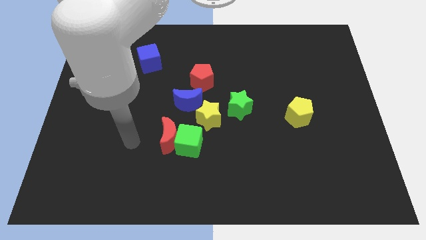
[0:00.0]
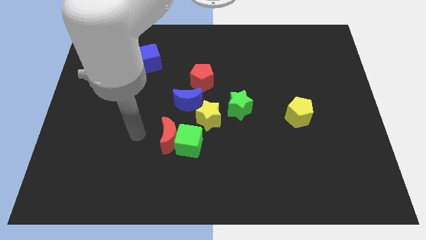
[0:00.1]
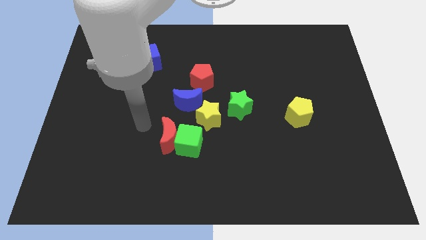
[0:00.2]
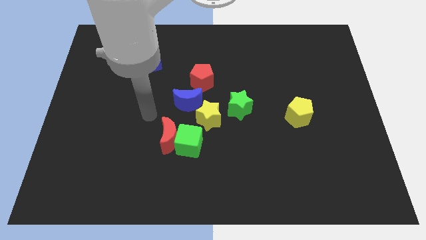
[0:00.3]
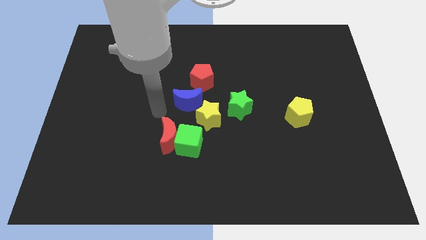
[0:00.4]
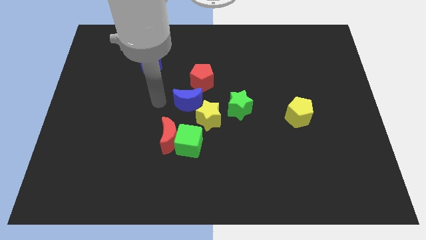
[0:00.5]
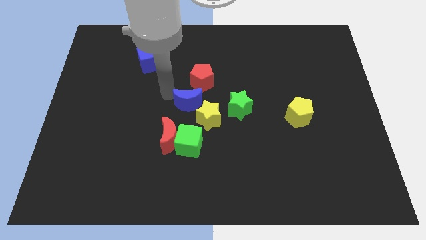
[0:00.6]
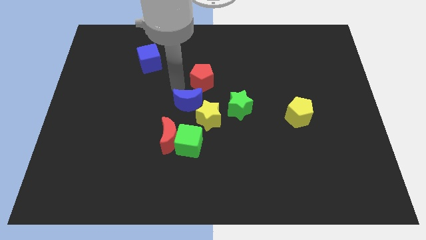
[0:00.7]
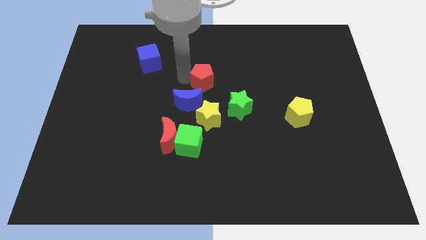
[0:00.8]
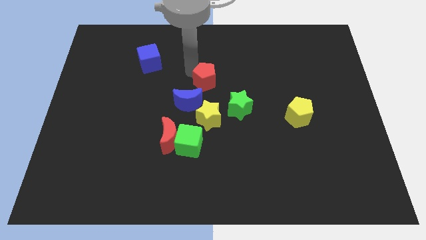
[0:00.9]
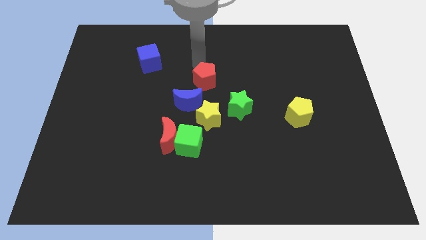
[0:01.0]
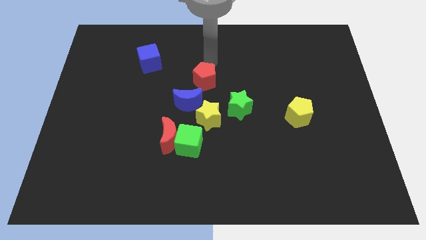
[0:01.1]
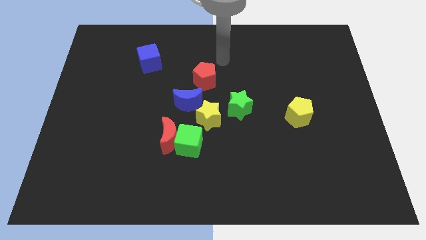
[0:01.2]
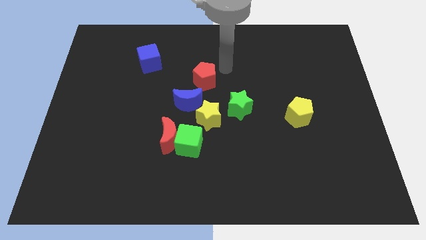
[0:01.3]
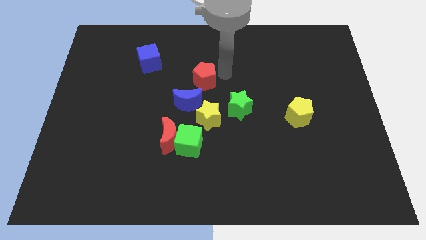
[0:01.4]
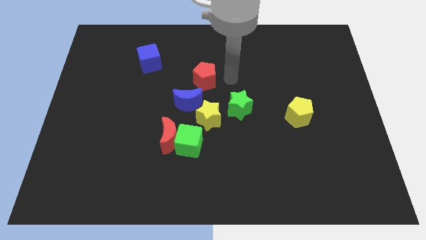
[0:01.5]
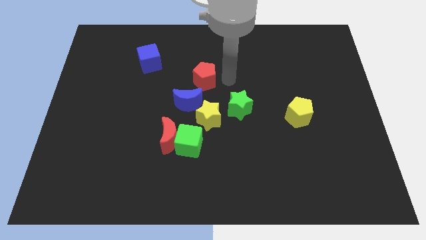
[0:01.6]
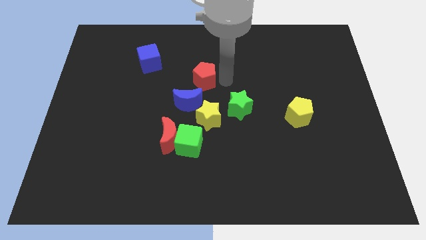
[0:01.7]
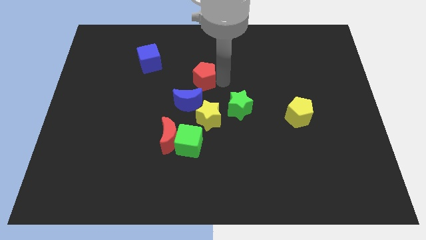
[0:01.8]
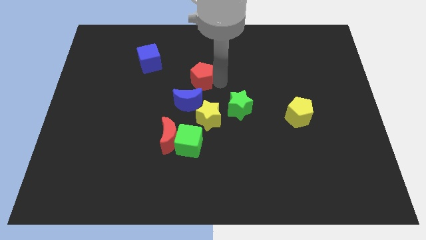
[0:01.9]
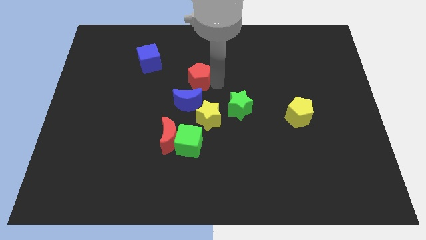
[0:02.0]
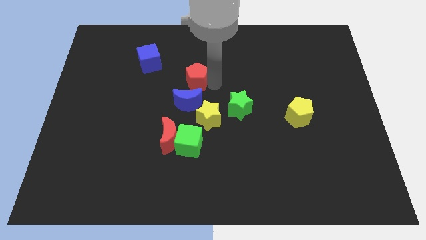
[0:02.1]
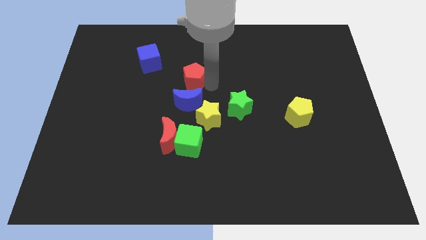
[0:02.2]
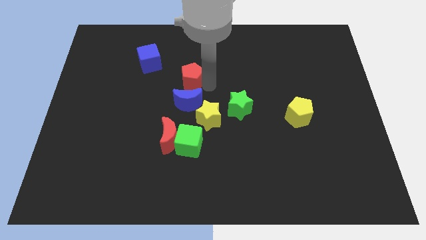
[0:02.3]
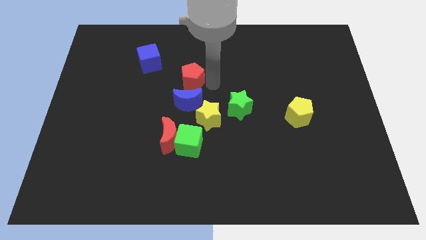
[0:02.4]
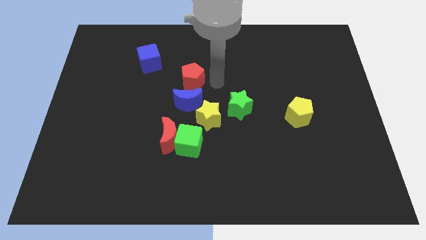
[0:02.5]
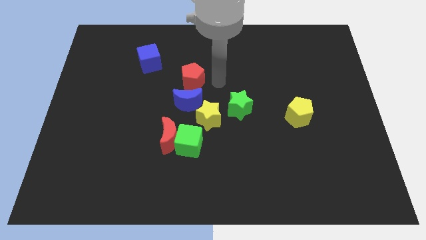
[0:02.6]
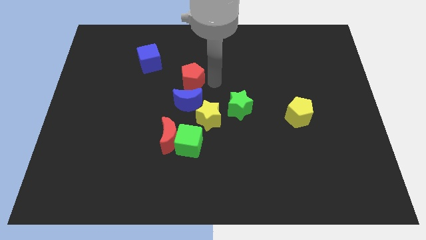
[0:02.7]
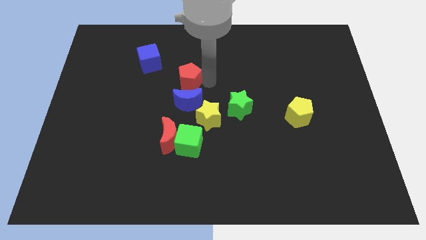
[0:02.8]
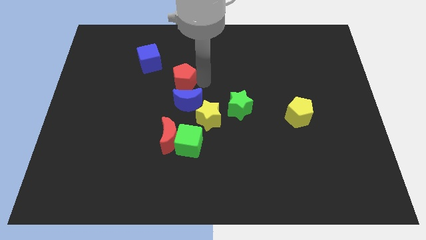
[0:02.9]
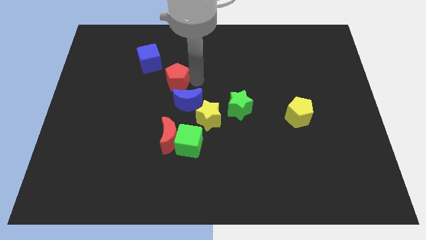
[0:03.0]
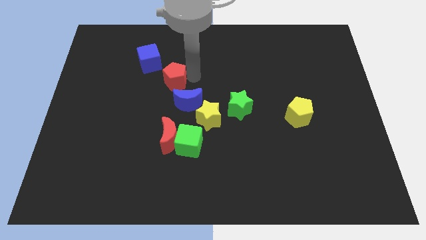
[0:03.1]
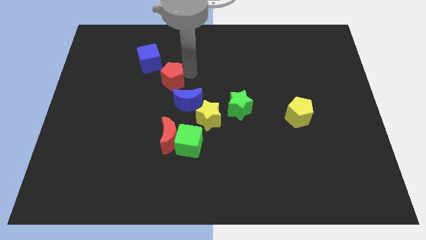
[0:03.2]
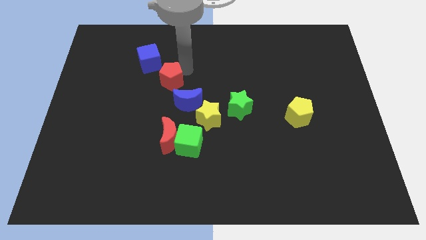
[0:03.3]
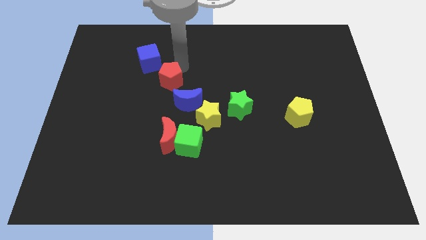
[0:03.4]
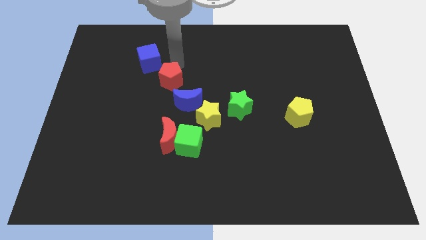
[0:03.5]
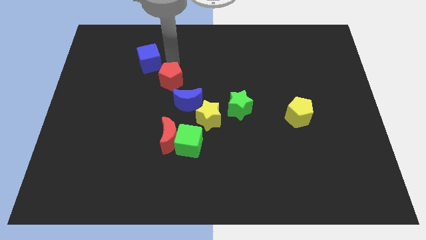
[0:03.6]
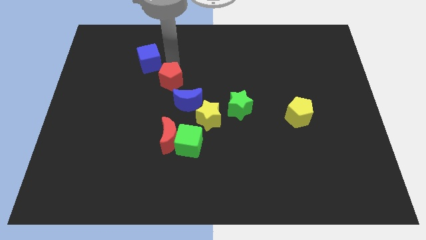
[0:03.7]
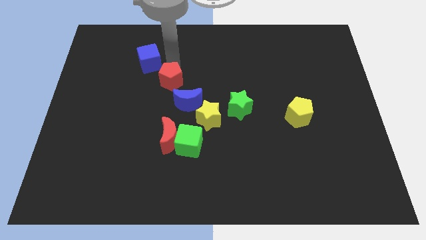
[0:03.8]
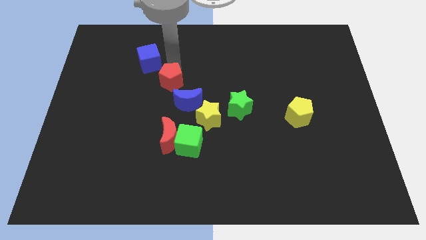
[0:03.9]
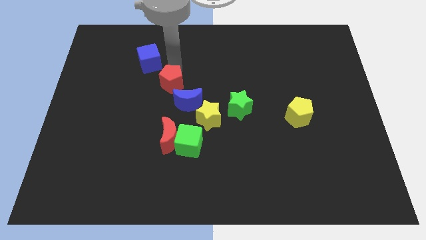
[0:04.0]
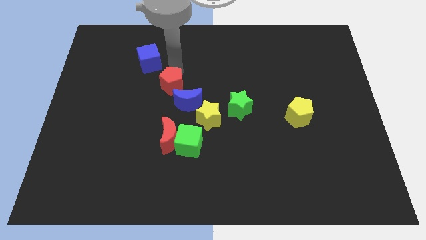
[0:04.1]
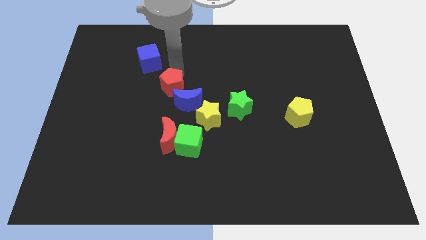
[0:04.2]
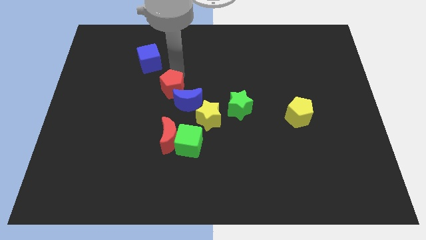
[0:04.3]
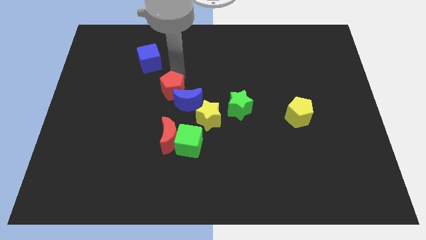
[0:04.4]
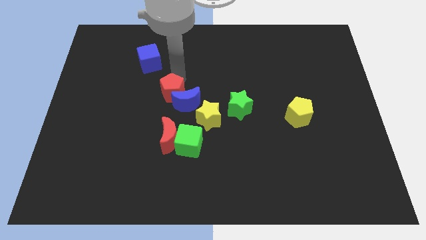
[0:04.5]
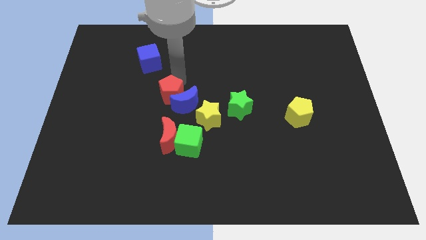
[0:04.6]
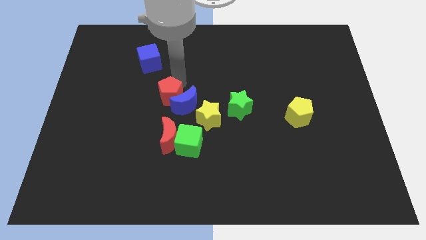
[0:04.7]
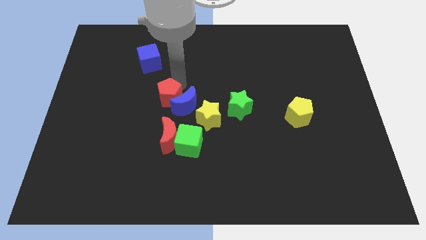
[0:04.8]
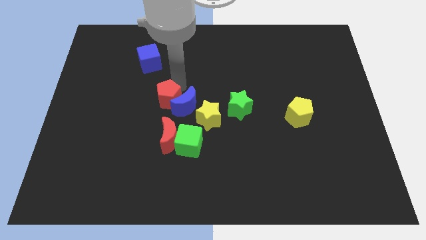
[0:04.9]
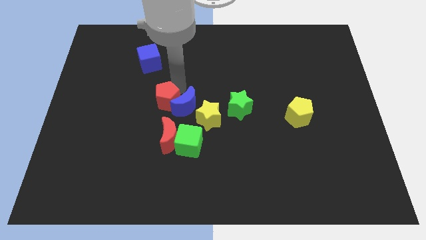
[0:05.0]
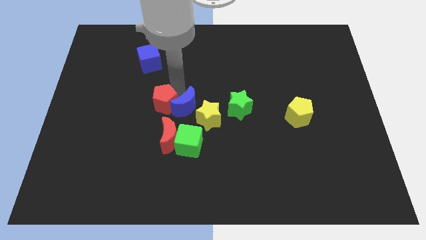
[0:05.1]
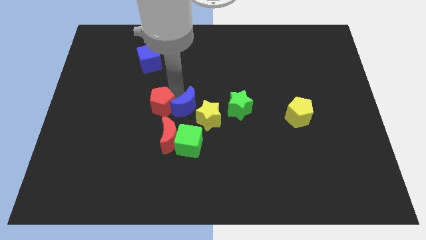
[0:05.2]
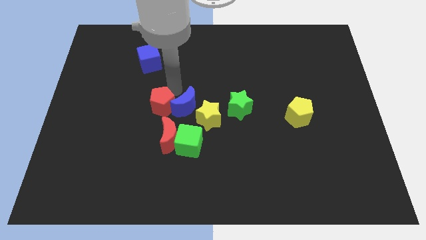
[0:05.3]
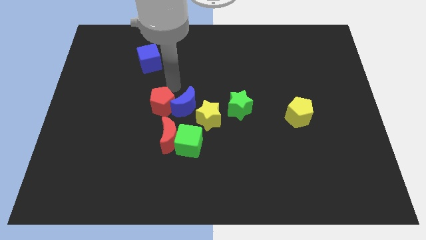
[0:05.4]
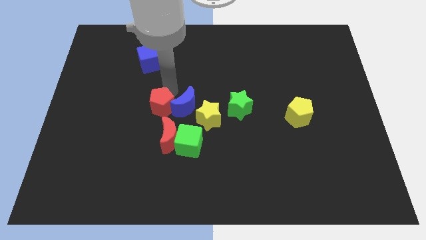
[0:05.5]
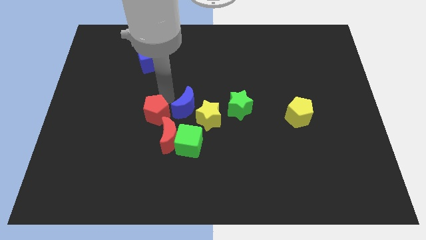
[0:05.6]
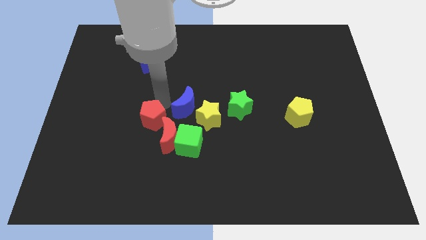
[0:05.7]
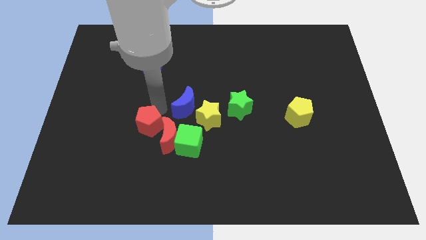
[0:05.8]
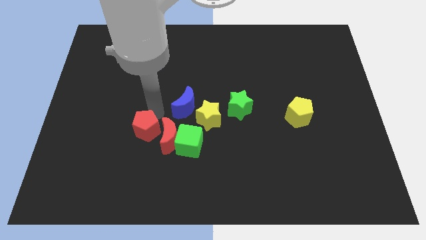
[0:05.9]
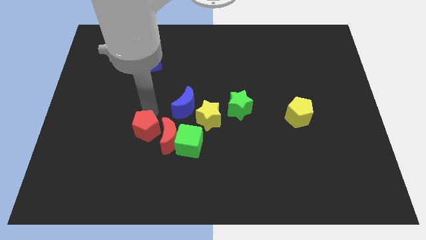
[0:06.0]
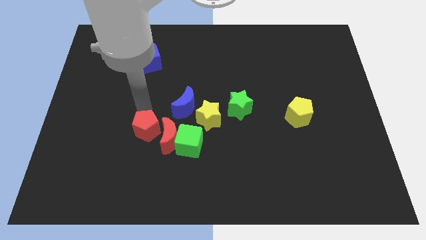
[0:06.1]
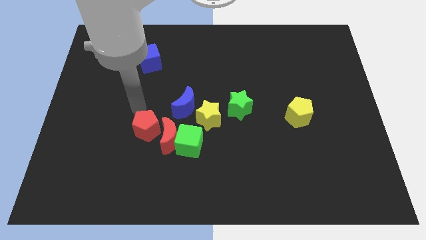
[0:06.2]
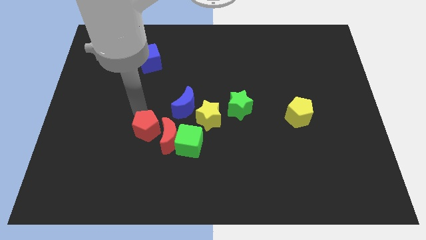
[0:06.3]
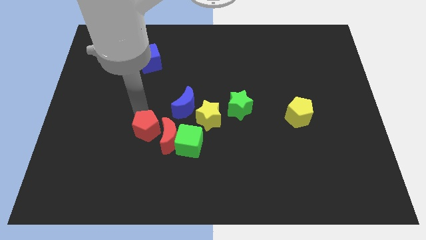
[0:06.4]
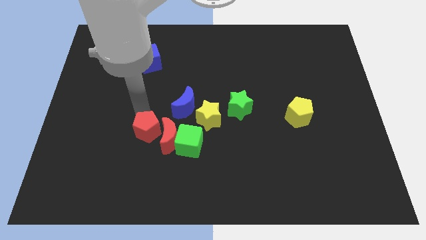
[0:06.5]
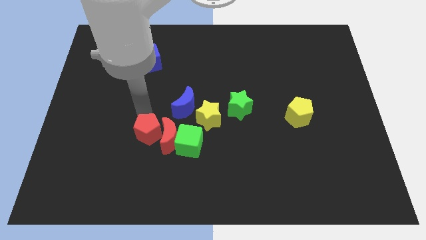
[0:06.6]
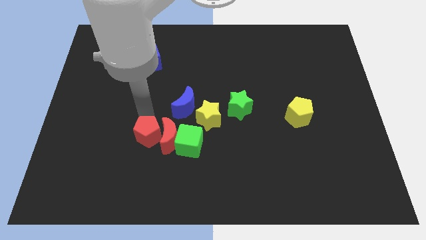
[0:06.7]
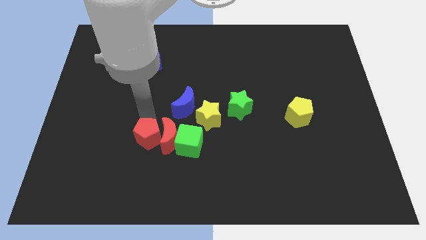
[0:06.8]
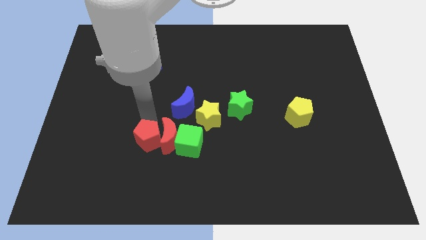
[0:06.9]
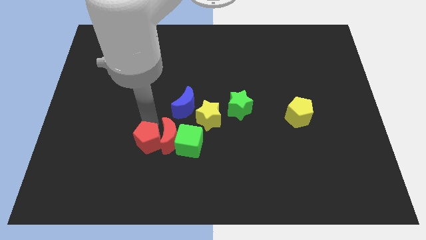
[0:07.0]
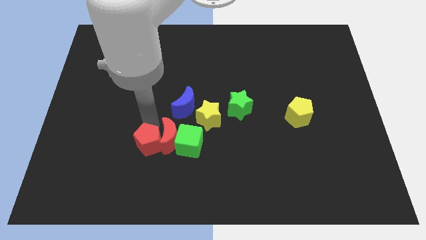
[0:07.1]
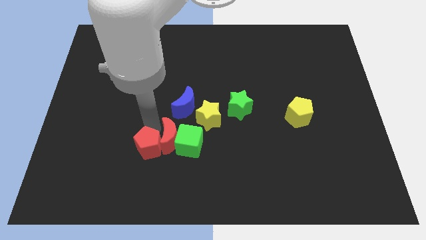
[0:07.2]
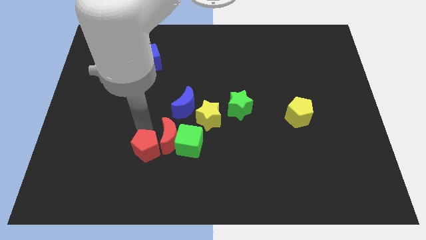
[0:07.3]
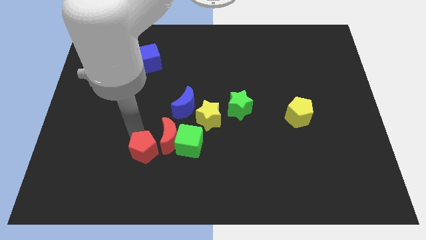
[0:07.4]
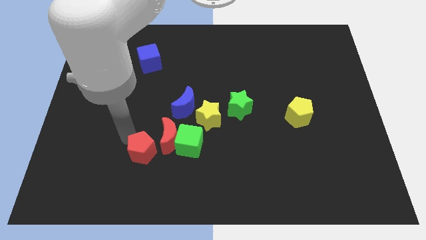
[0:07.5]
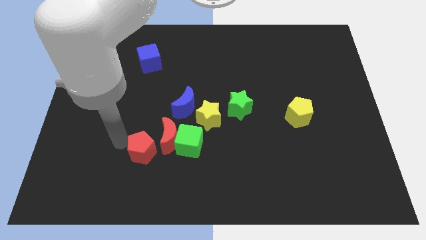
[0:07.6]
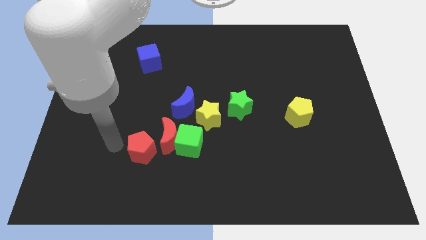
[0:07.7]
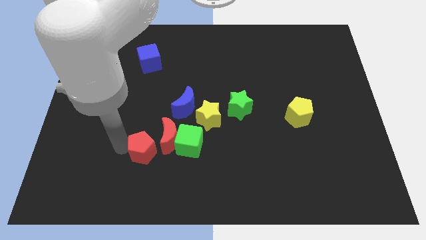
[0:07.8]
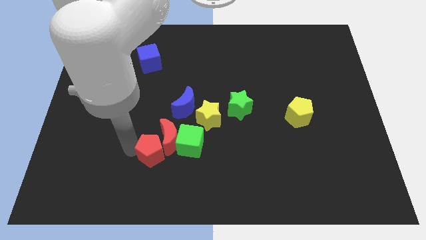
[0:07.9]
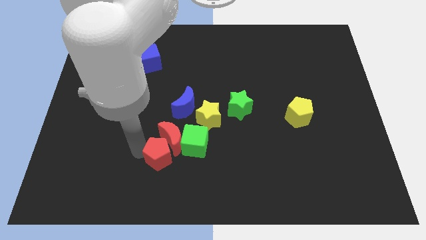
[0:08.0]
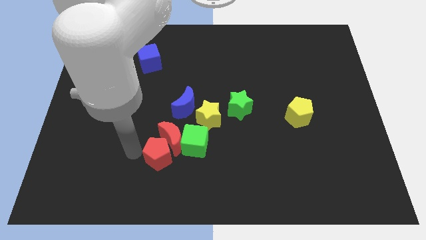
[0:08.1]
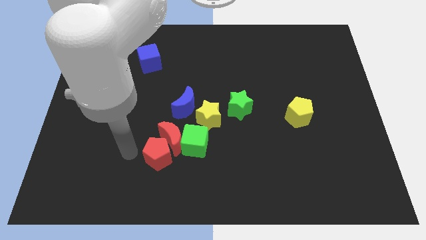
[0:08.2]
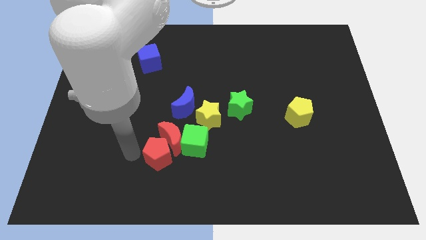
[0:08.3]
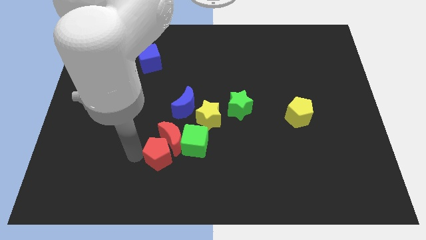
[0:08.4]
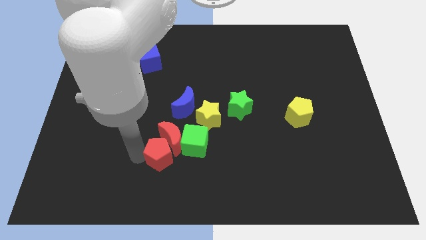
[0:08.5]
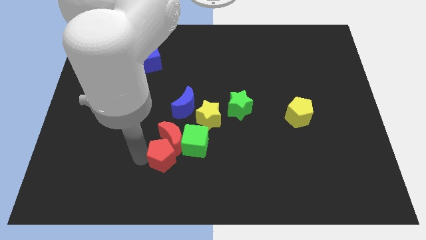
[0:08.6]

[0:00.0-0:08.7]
move the red pentagon below the blue moon
